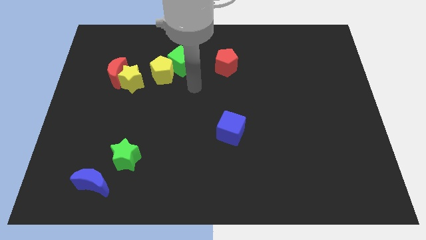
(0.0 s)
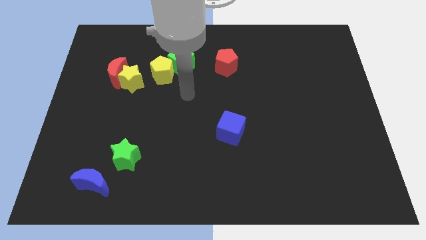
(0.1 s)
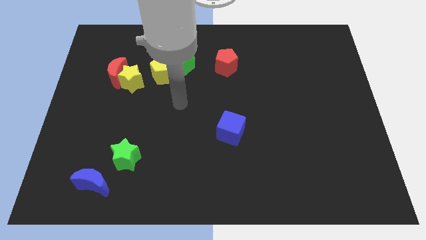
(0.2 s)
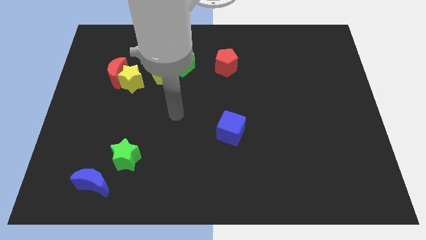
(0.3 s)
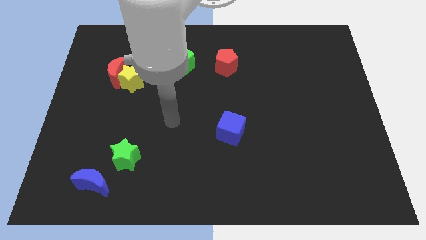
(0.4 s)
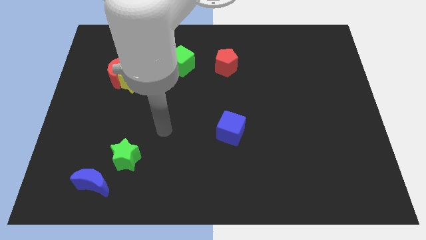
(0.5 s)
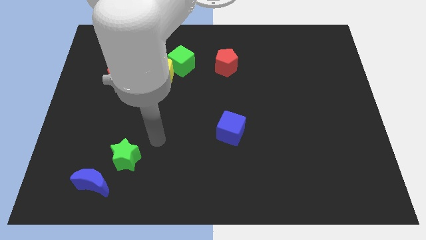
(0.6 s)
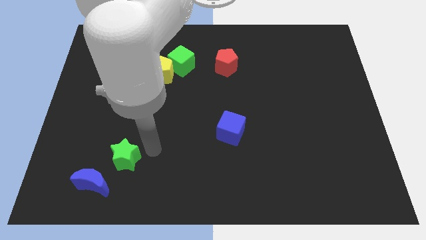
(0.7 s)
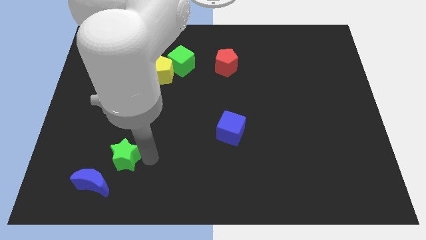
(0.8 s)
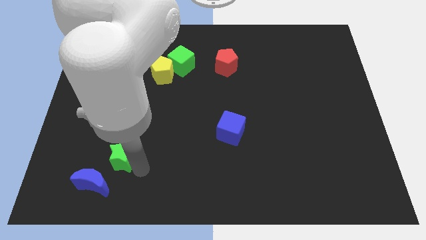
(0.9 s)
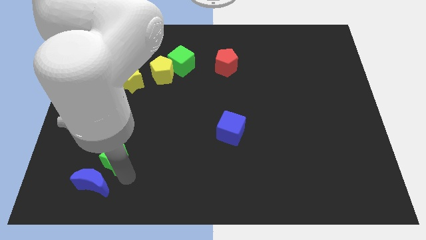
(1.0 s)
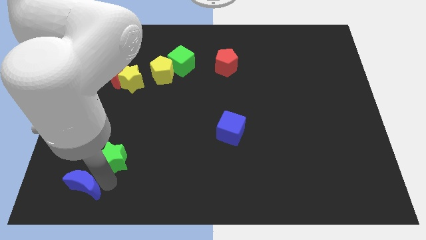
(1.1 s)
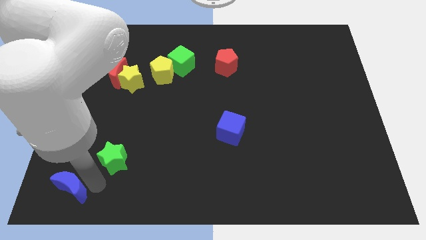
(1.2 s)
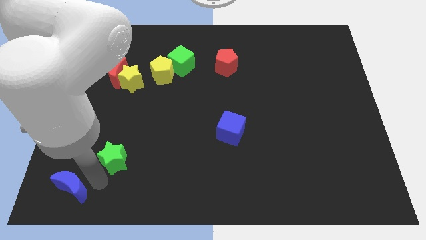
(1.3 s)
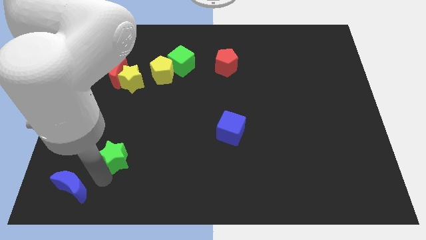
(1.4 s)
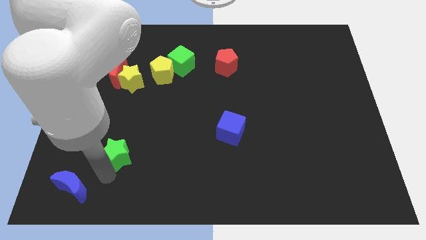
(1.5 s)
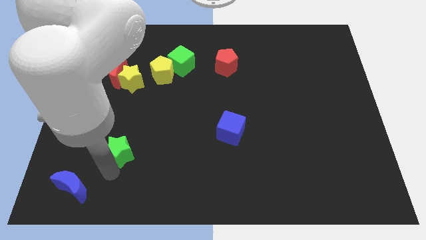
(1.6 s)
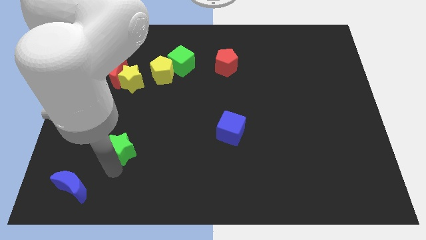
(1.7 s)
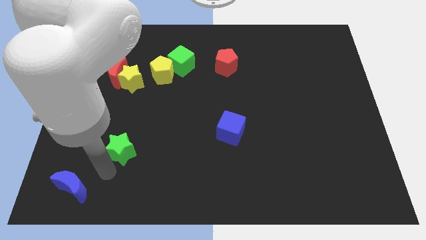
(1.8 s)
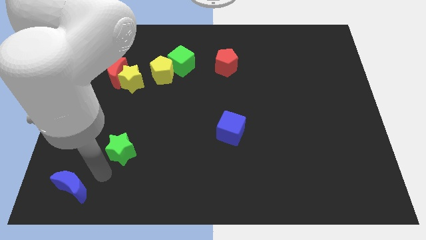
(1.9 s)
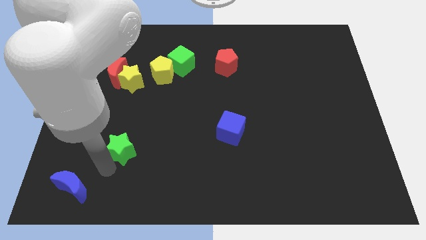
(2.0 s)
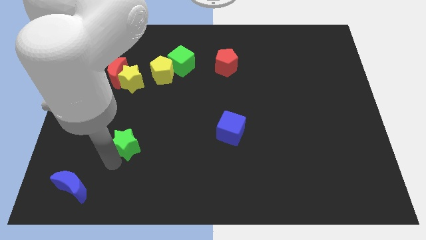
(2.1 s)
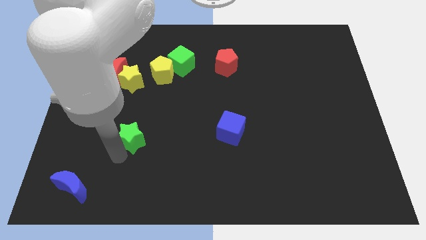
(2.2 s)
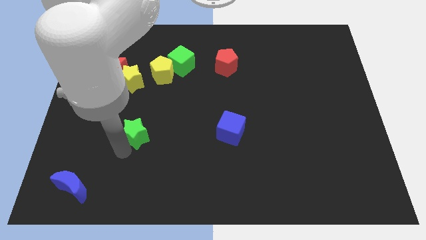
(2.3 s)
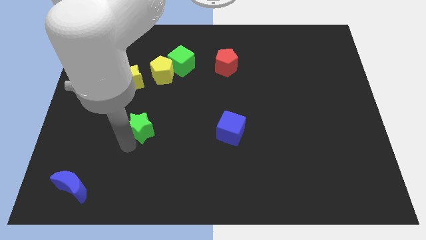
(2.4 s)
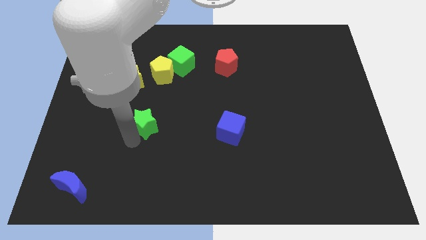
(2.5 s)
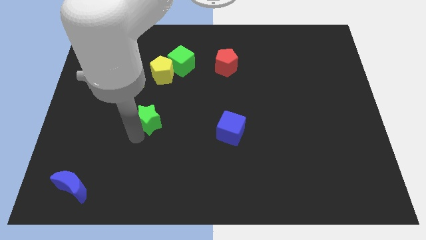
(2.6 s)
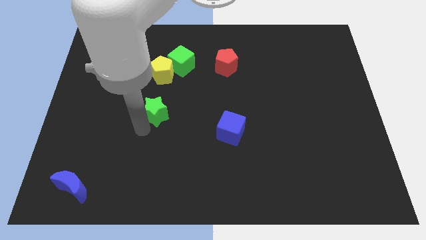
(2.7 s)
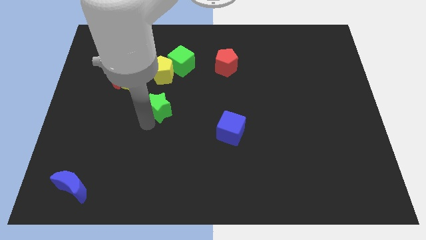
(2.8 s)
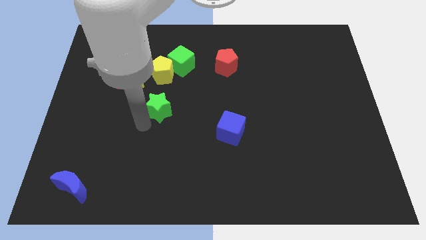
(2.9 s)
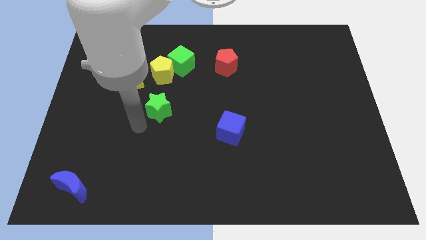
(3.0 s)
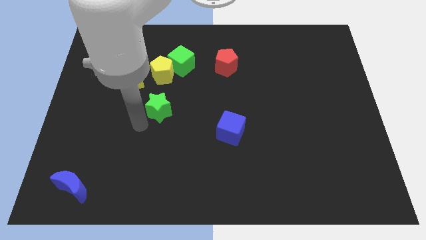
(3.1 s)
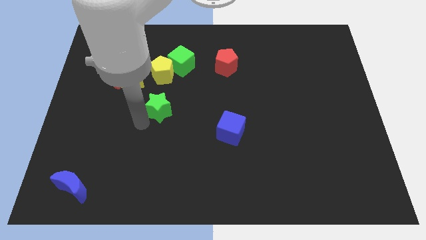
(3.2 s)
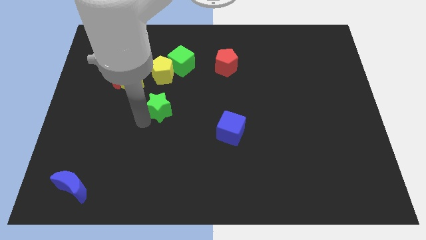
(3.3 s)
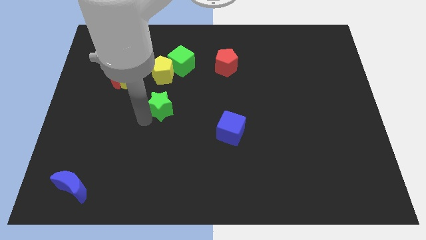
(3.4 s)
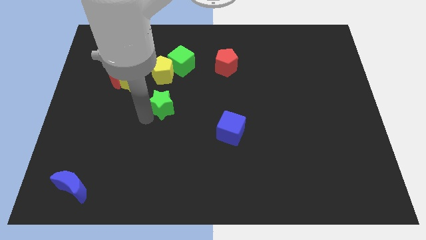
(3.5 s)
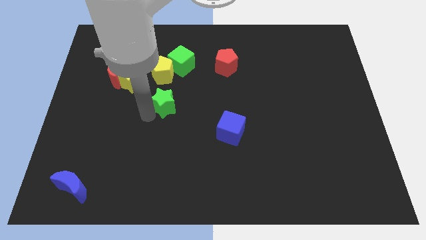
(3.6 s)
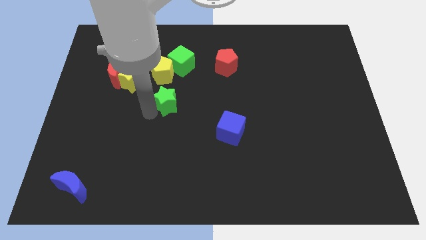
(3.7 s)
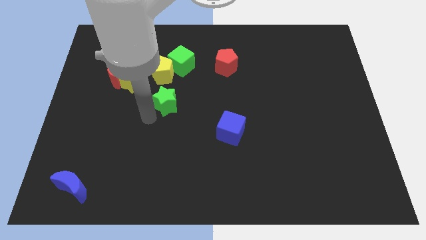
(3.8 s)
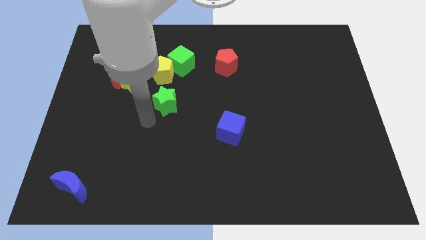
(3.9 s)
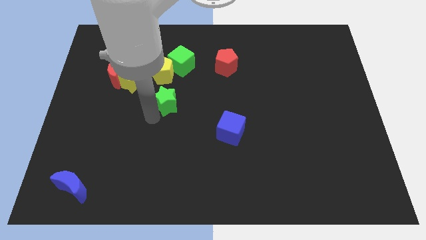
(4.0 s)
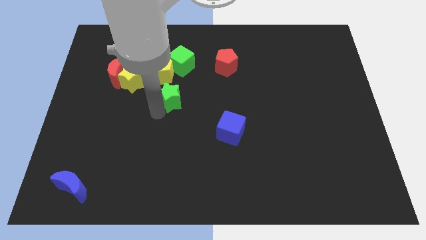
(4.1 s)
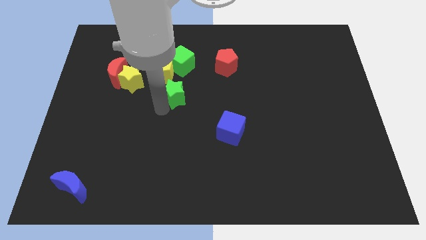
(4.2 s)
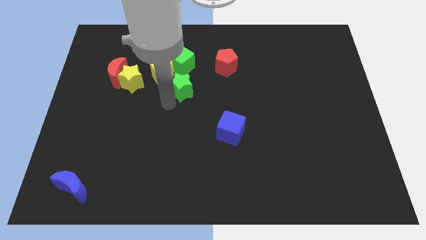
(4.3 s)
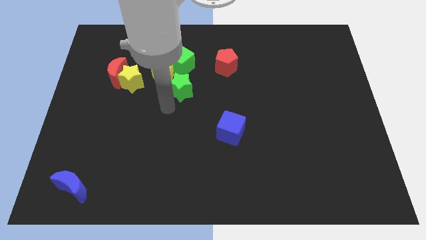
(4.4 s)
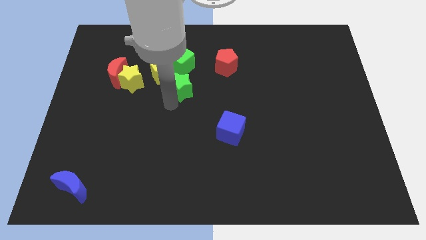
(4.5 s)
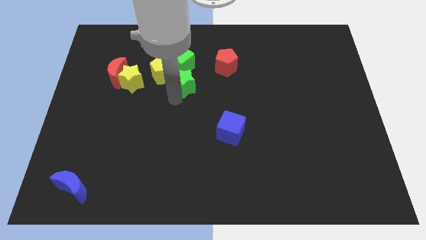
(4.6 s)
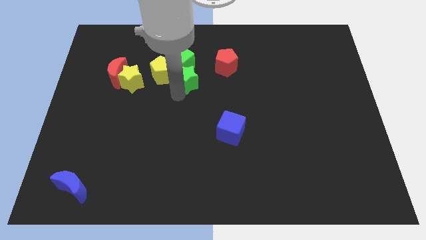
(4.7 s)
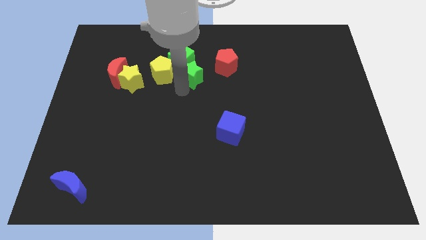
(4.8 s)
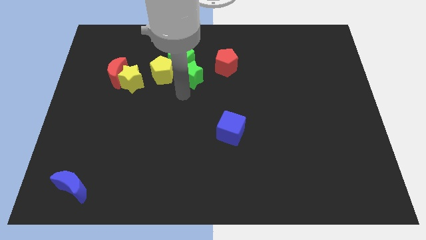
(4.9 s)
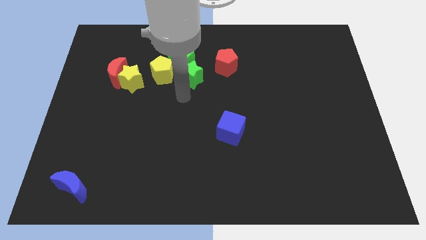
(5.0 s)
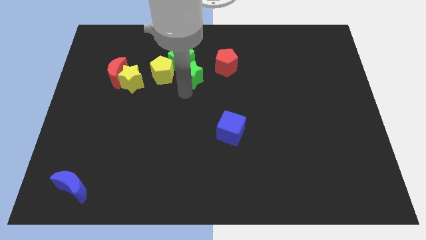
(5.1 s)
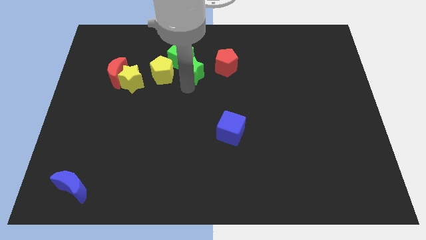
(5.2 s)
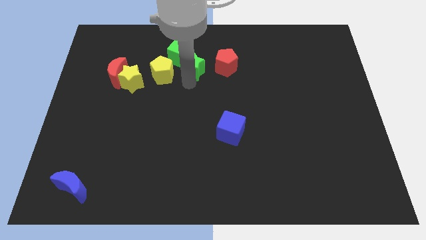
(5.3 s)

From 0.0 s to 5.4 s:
put the green star diagonally up and to the right of the yellow pentagon

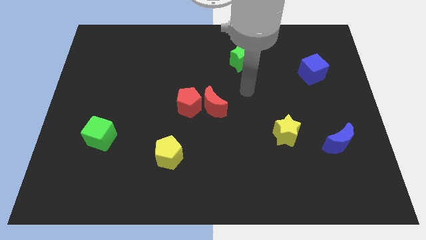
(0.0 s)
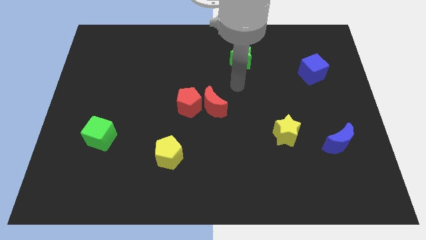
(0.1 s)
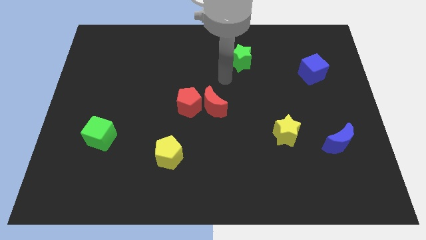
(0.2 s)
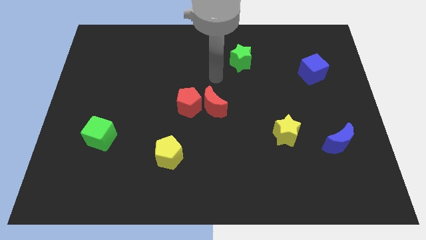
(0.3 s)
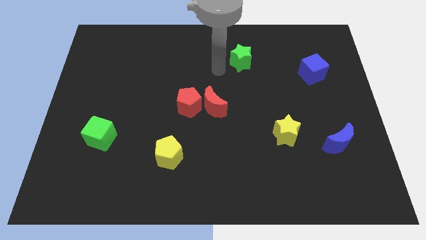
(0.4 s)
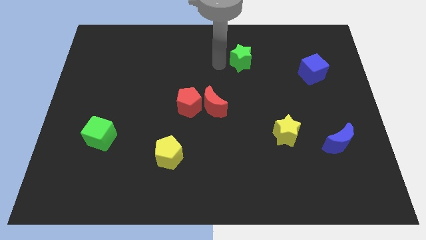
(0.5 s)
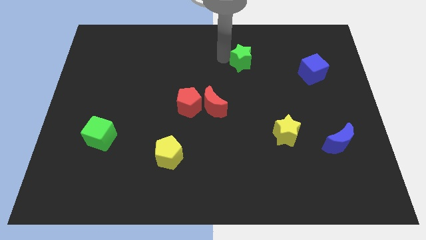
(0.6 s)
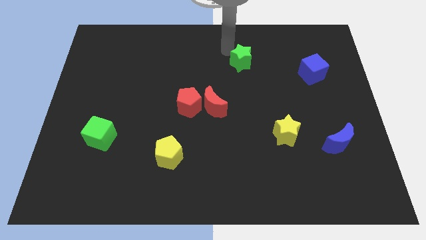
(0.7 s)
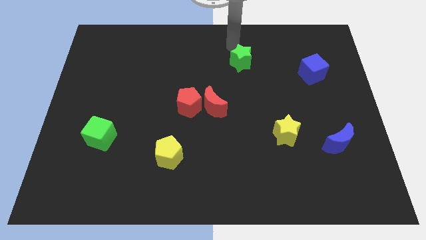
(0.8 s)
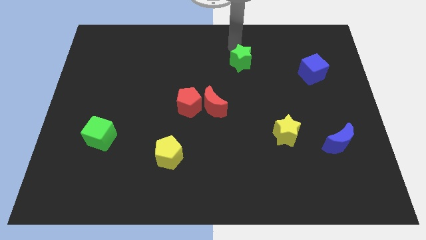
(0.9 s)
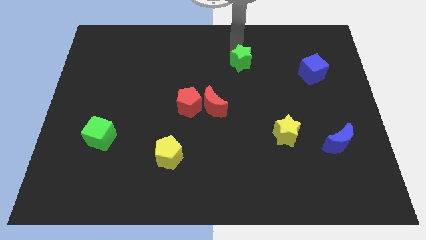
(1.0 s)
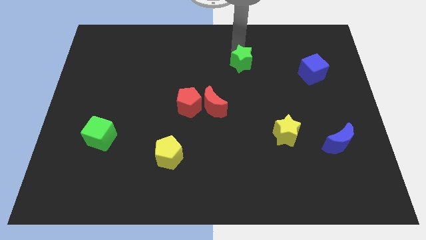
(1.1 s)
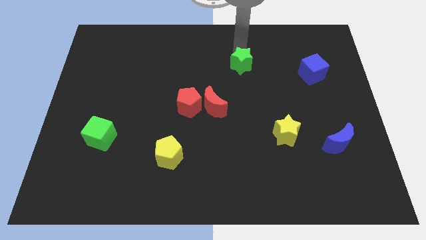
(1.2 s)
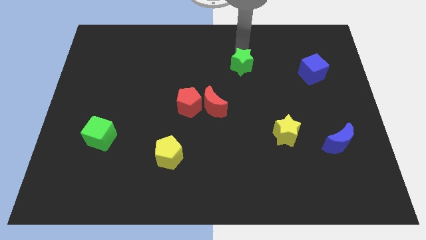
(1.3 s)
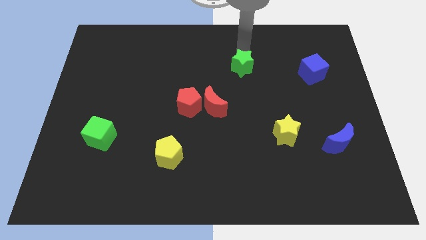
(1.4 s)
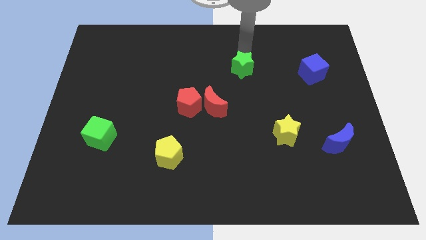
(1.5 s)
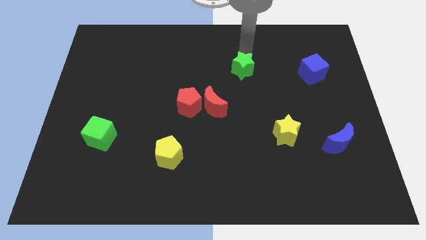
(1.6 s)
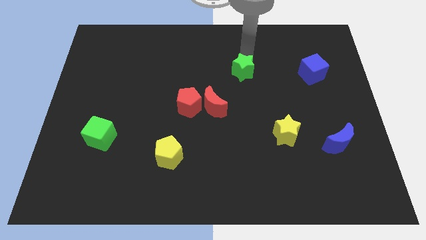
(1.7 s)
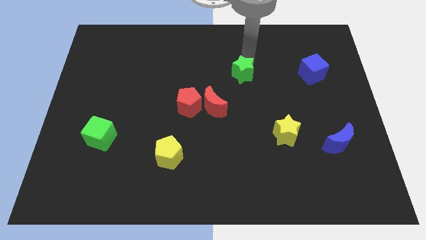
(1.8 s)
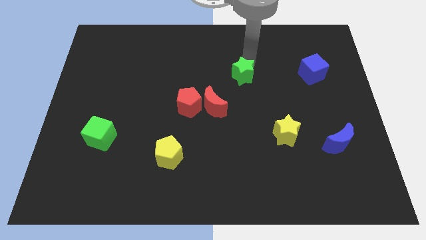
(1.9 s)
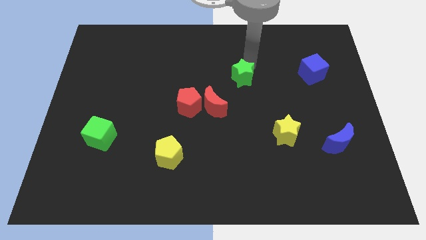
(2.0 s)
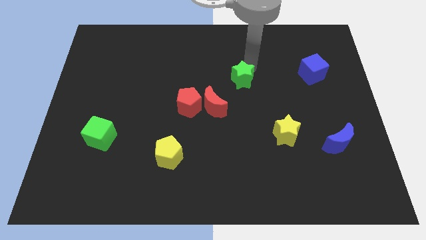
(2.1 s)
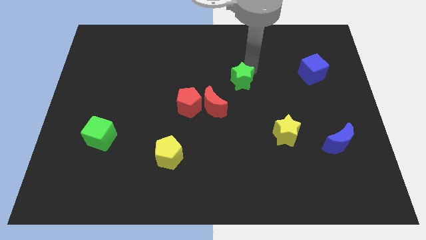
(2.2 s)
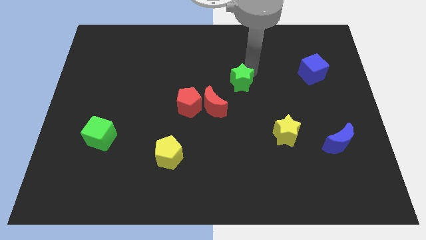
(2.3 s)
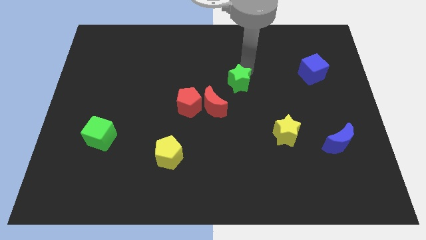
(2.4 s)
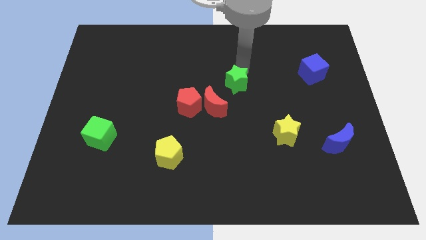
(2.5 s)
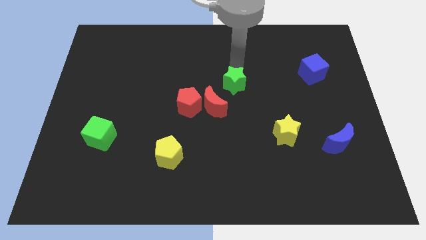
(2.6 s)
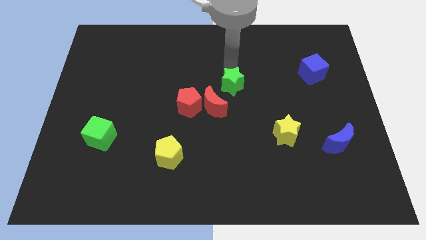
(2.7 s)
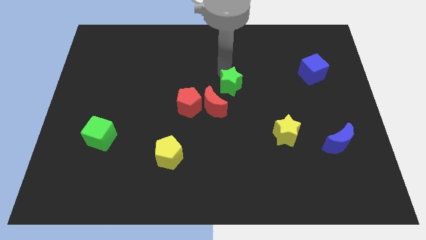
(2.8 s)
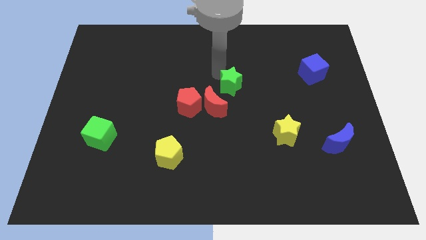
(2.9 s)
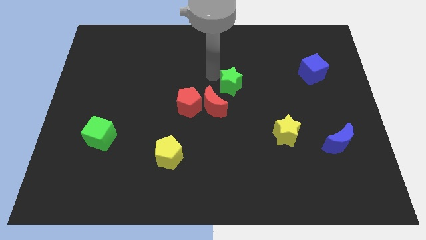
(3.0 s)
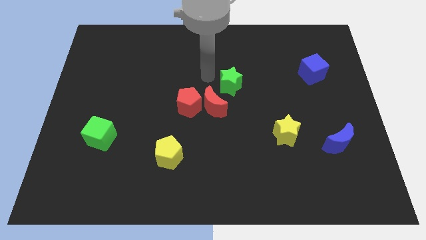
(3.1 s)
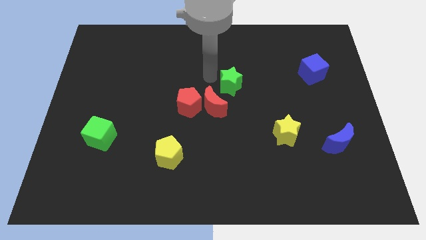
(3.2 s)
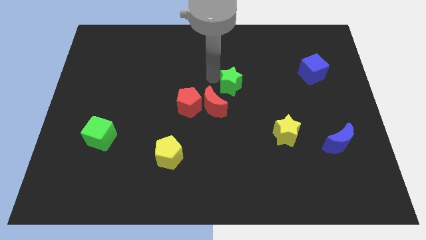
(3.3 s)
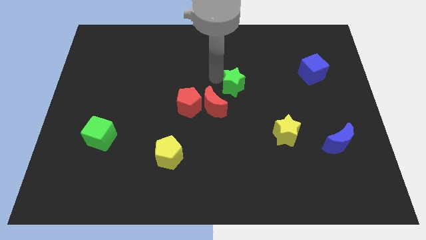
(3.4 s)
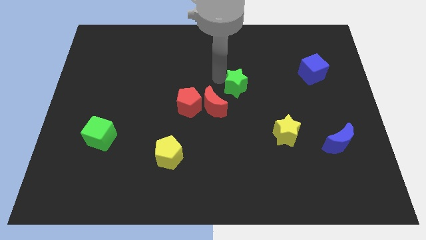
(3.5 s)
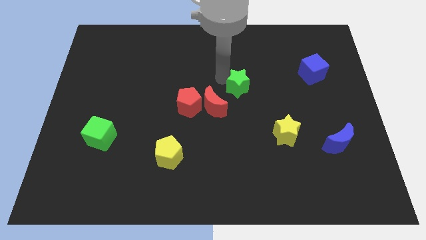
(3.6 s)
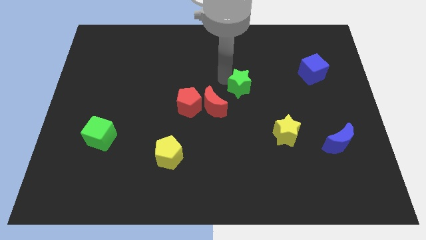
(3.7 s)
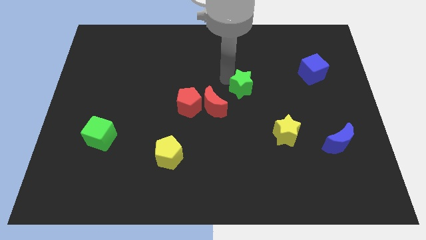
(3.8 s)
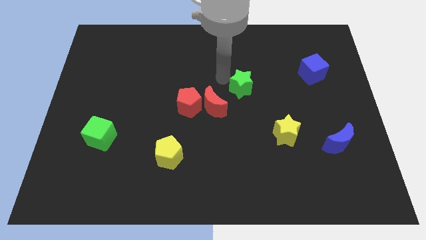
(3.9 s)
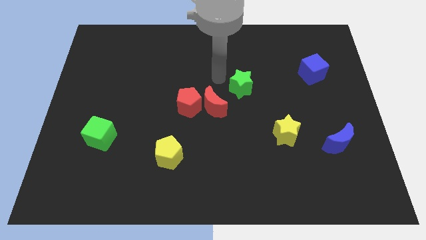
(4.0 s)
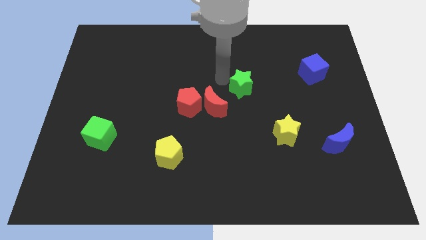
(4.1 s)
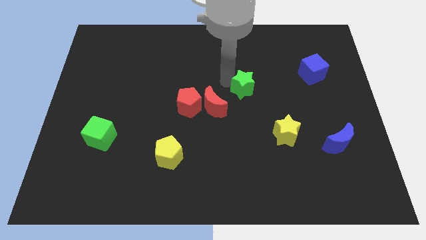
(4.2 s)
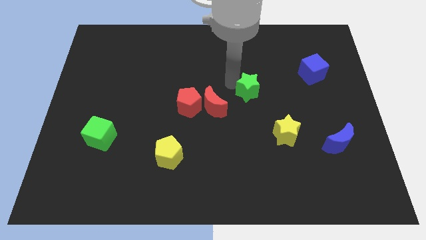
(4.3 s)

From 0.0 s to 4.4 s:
move the green star to the right side of the red moon
